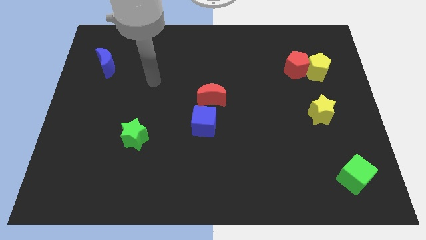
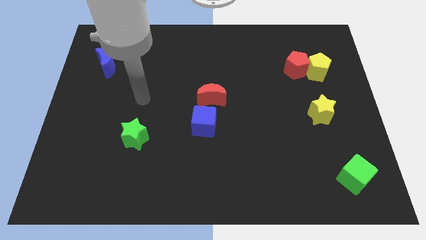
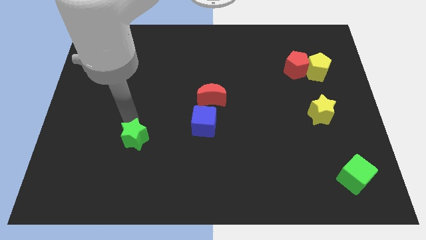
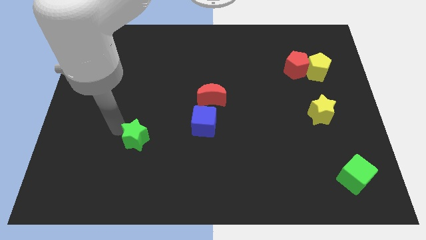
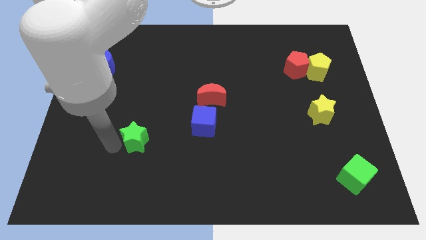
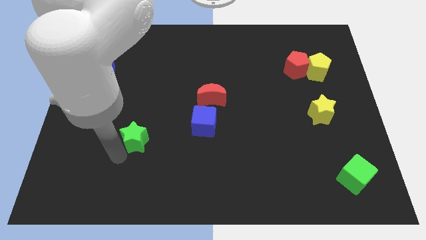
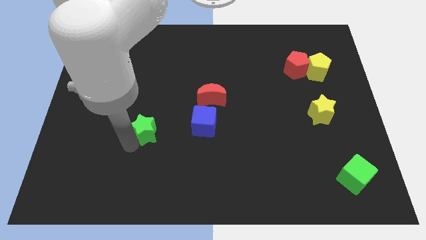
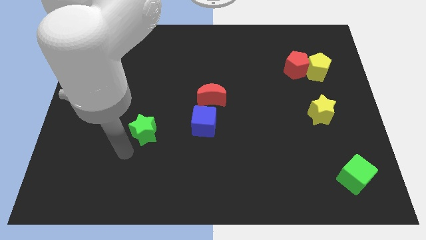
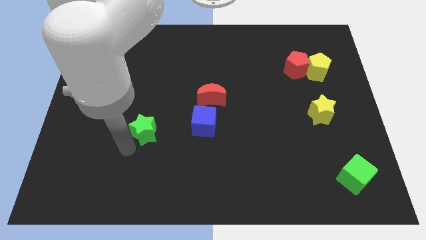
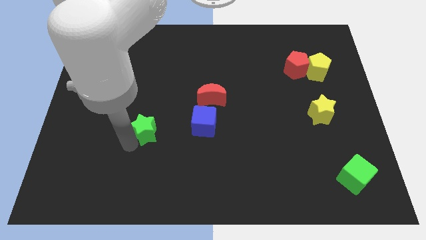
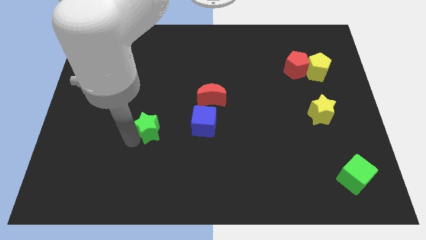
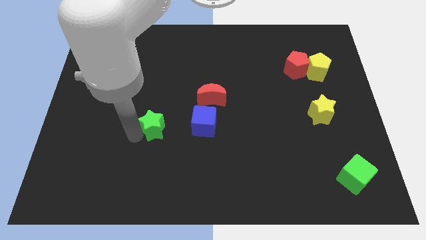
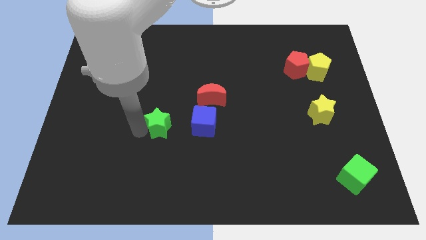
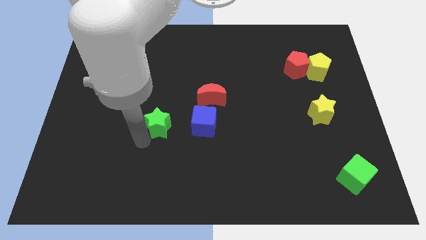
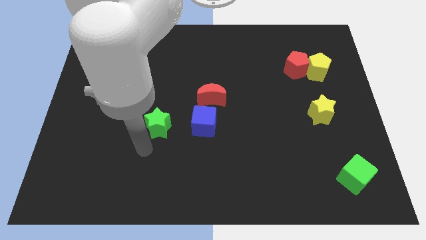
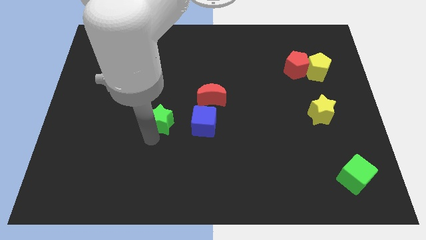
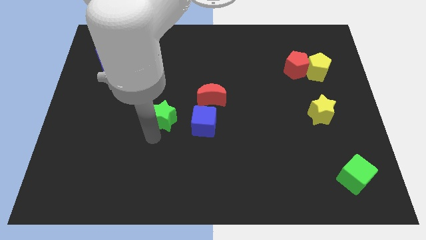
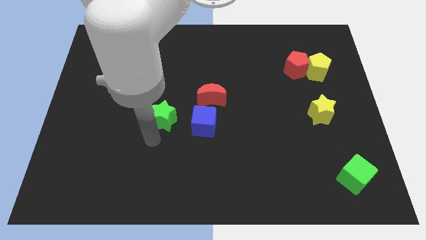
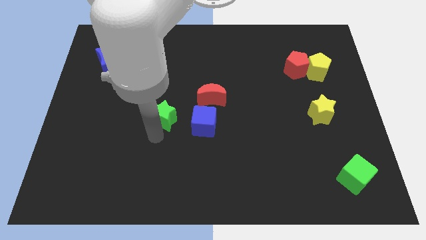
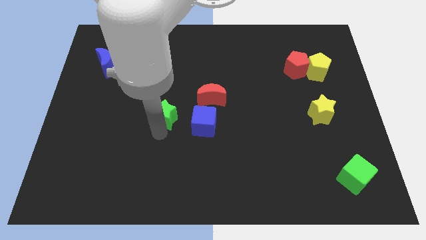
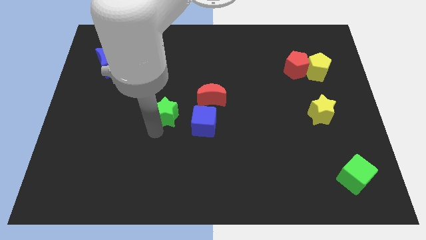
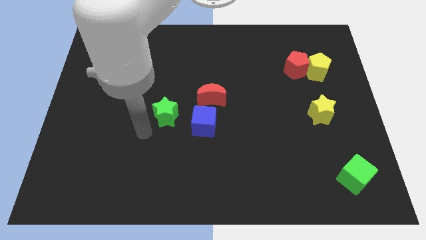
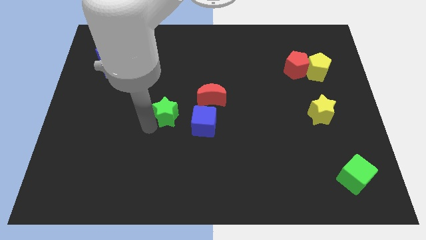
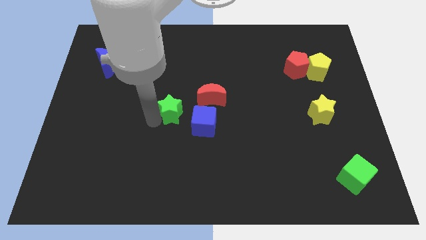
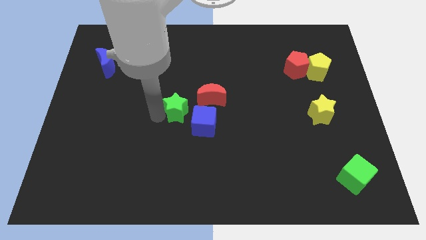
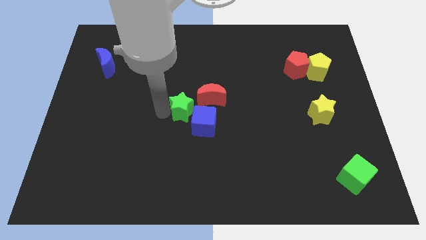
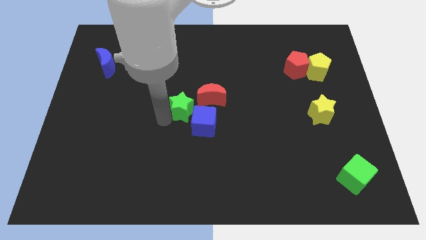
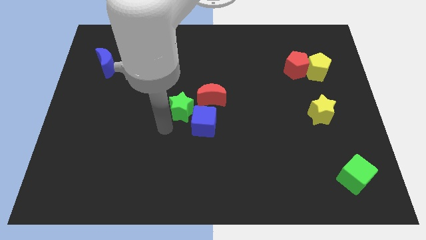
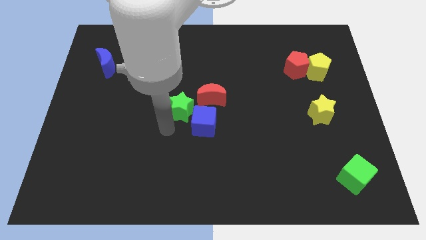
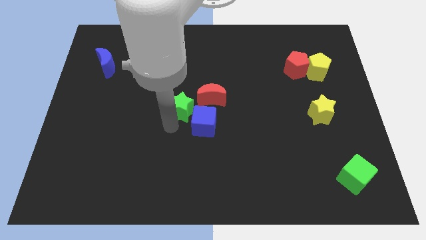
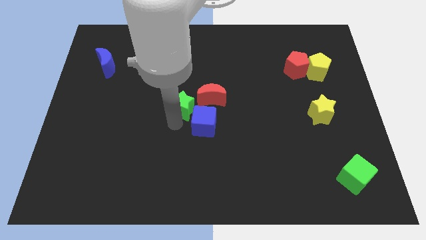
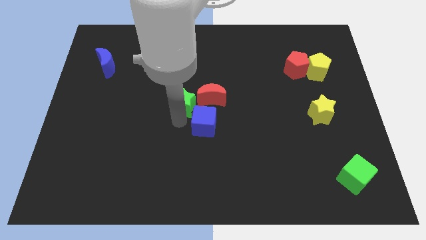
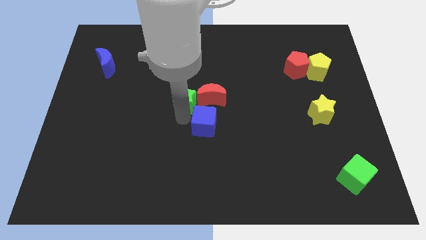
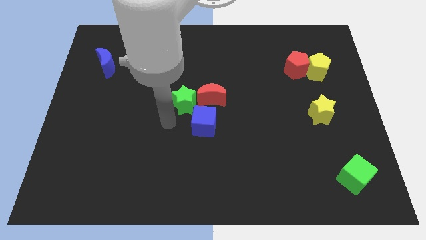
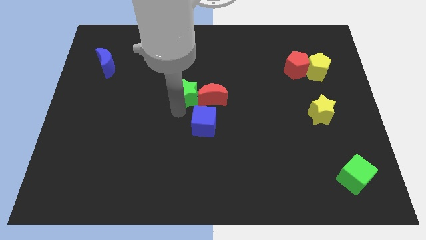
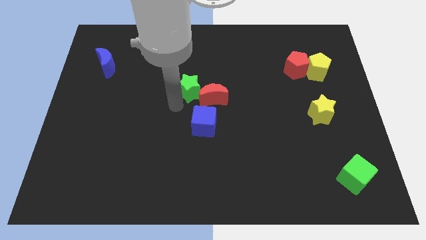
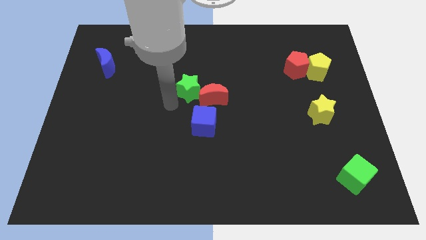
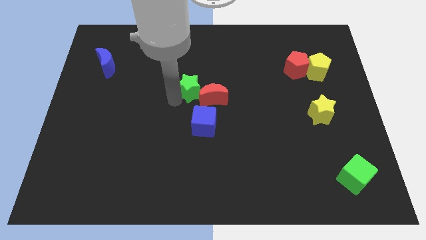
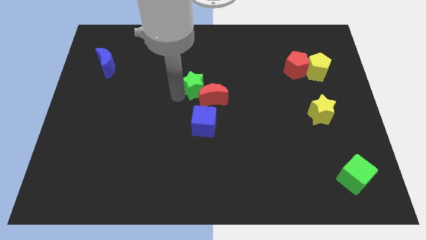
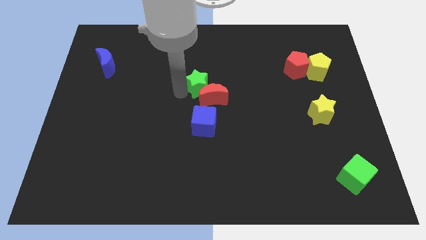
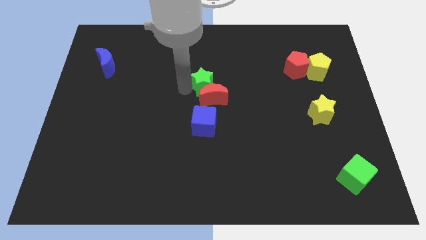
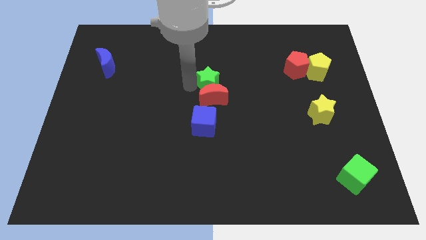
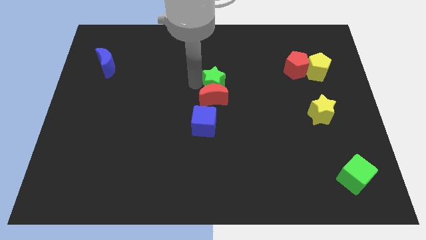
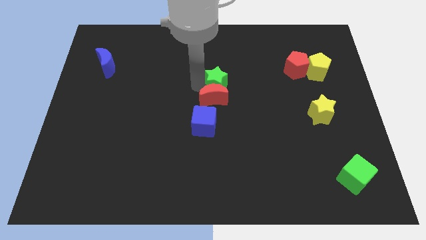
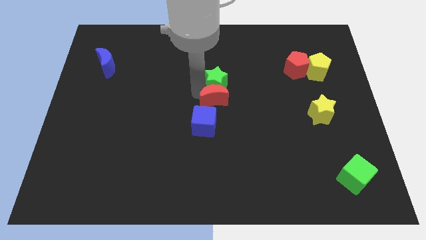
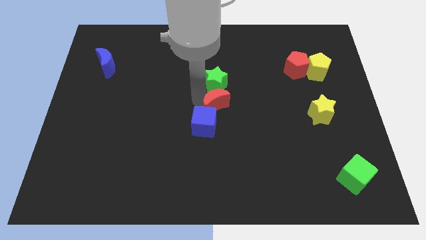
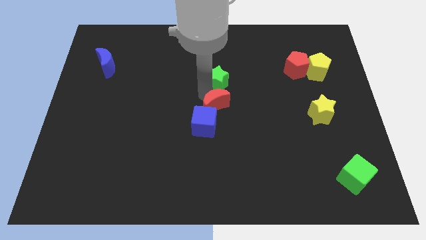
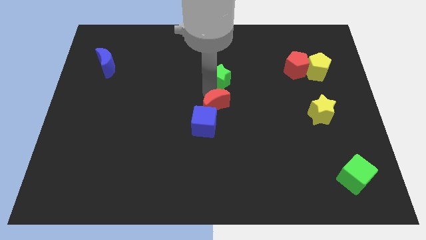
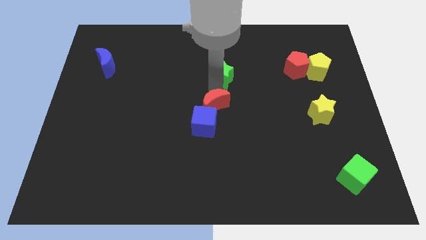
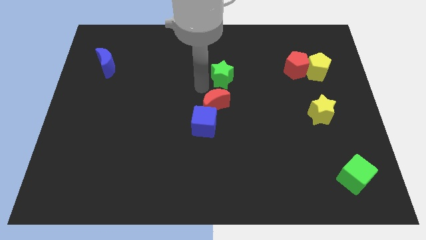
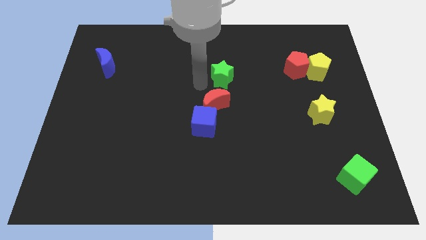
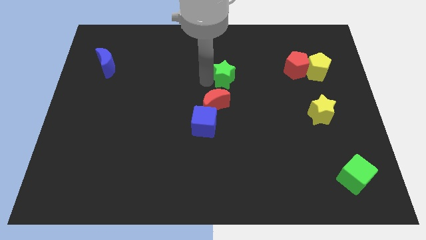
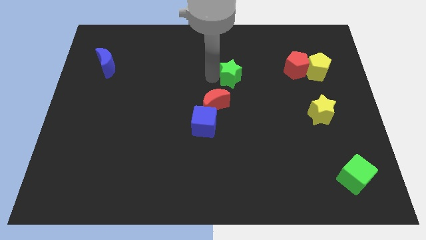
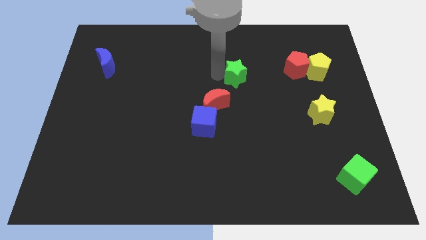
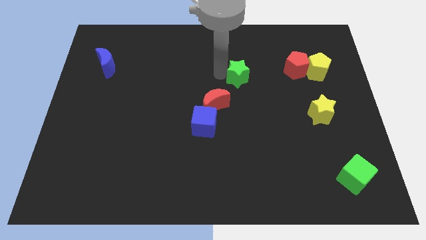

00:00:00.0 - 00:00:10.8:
slide the green star to the left of the red pentagon

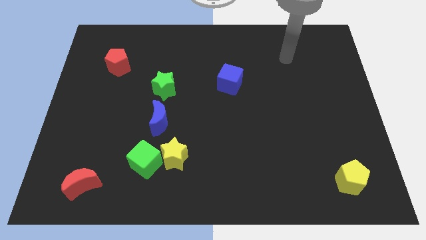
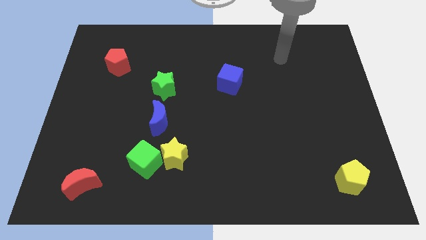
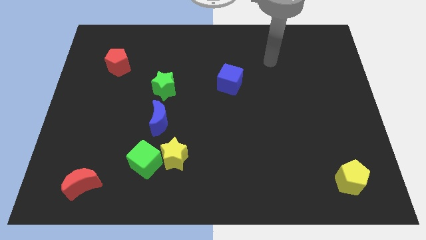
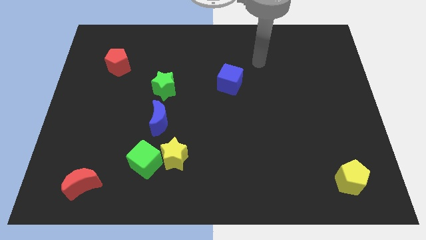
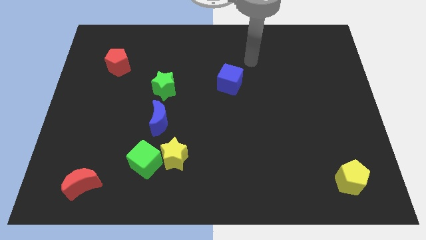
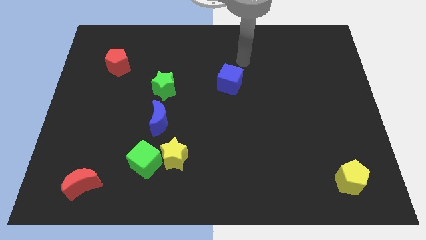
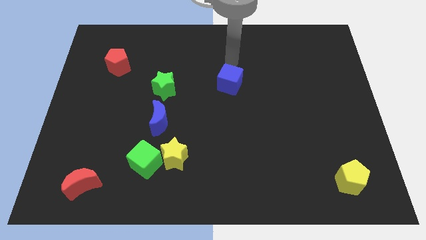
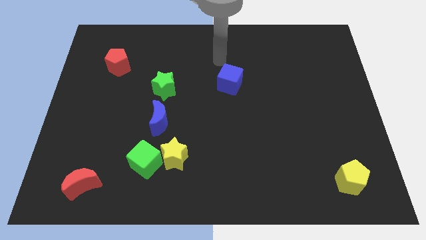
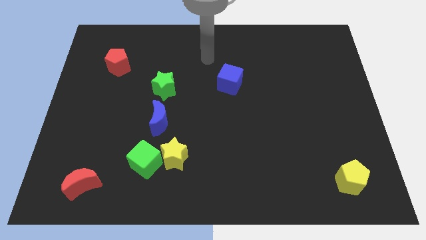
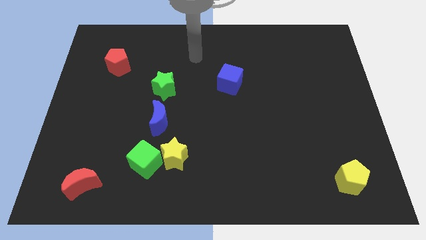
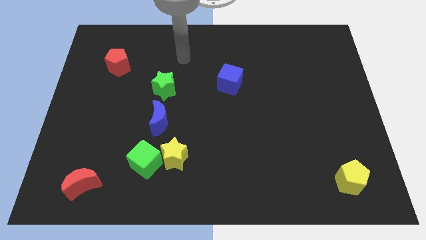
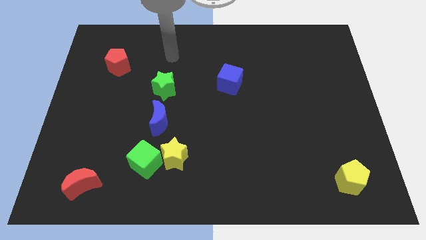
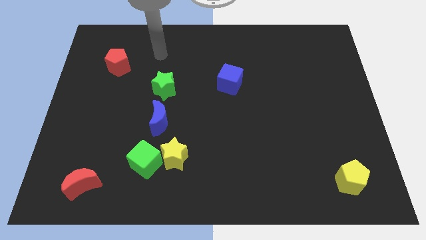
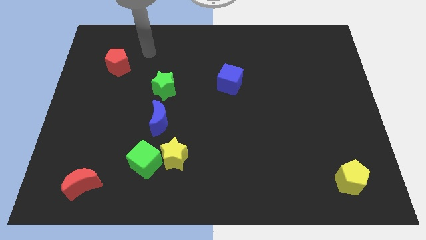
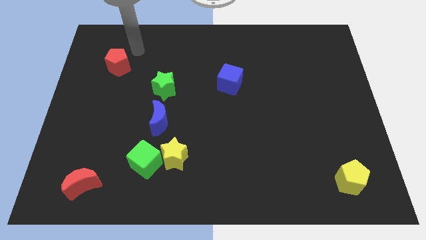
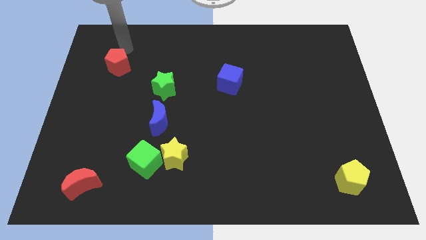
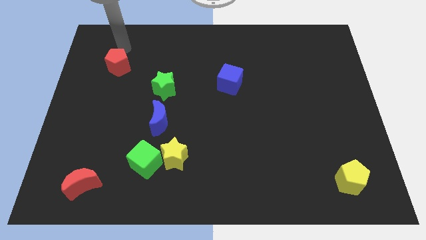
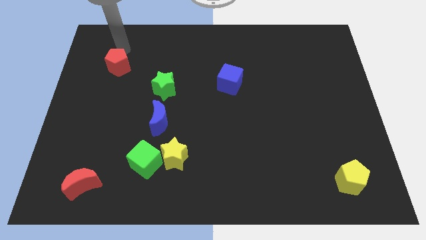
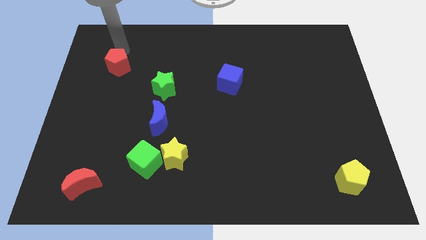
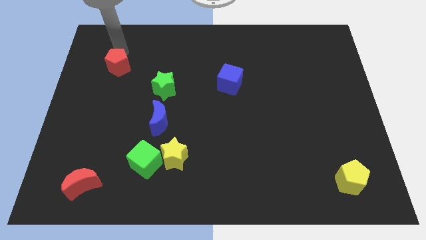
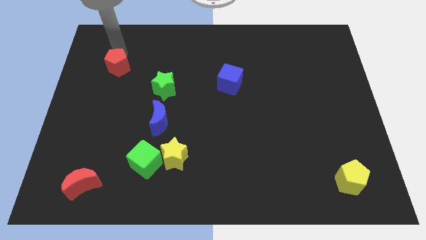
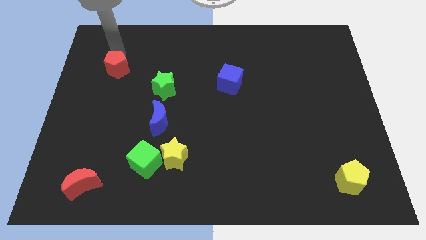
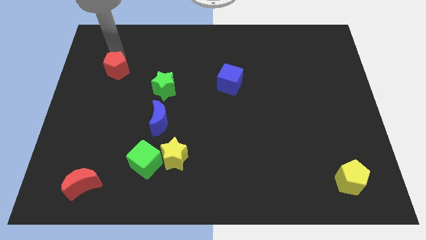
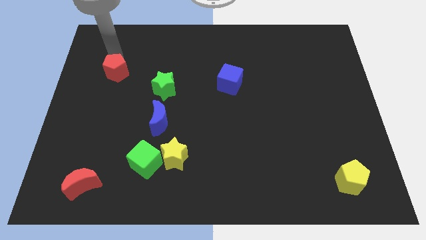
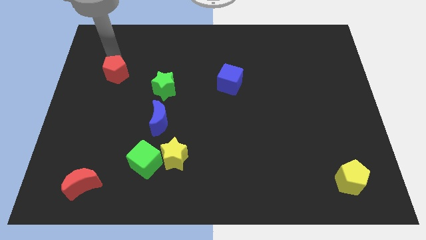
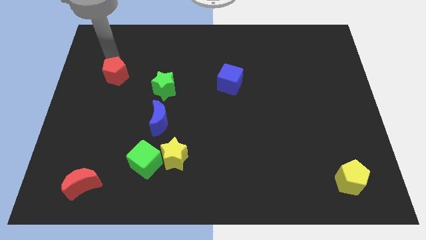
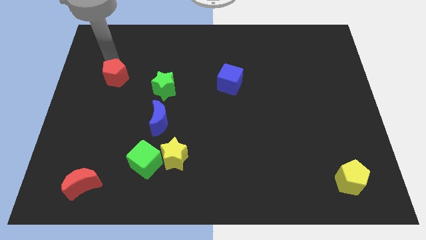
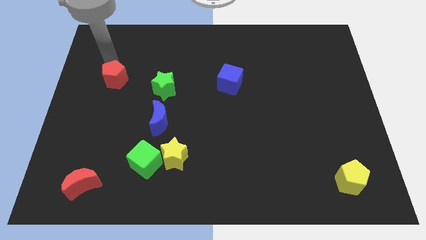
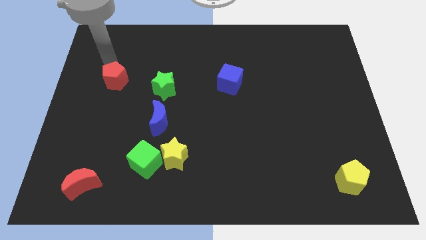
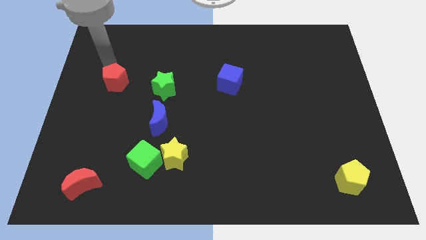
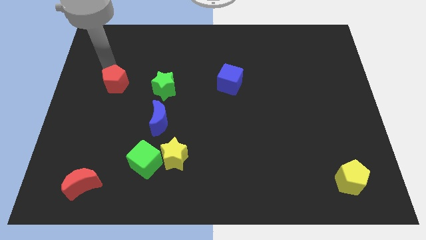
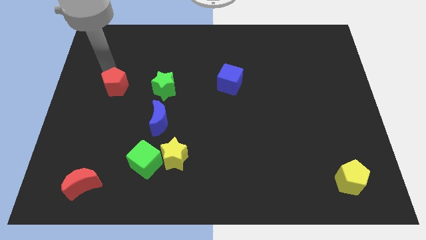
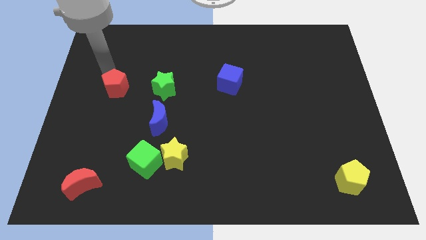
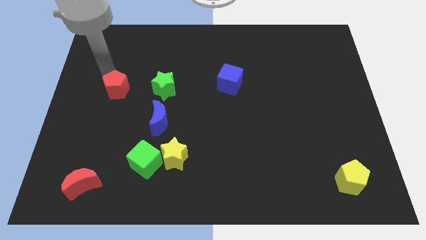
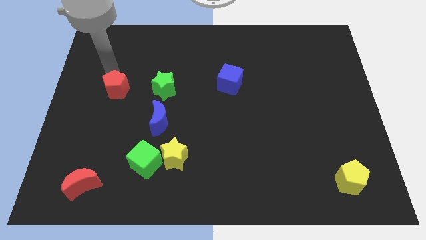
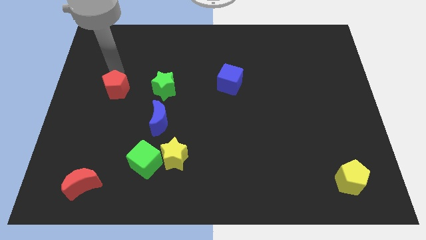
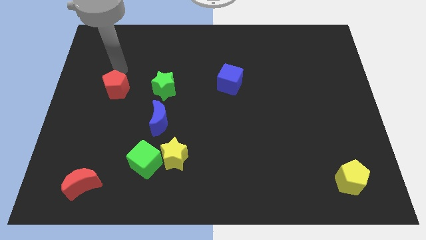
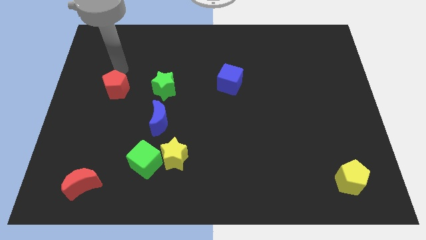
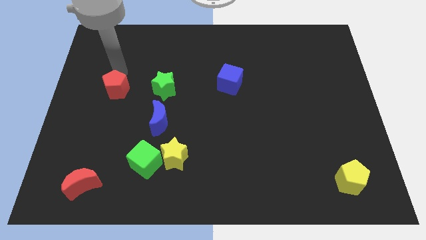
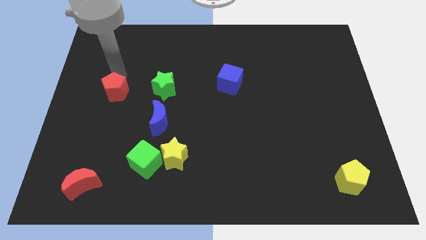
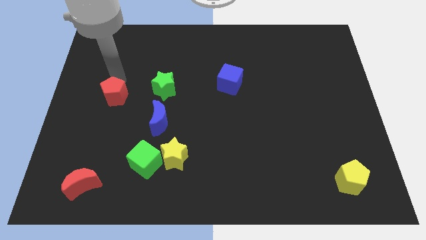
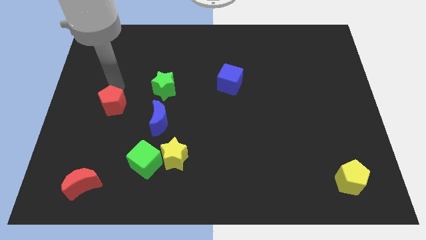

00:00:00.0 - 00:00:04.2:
put the red pentagon just left of the blue moon
